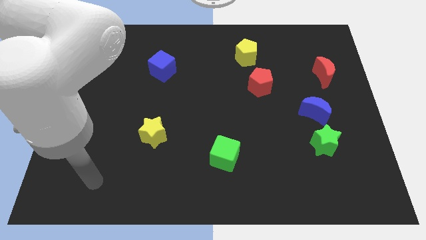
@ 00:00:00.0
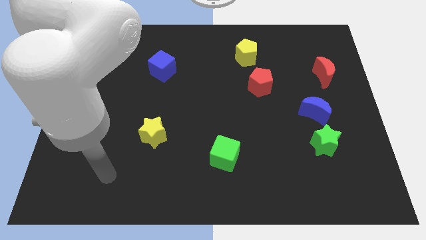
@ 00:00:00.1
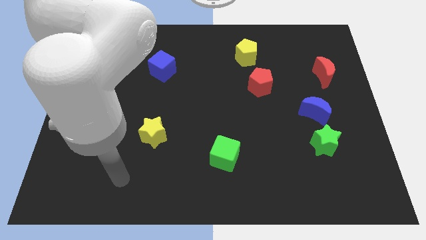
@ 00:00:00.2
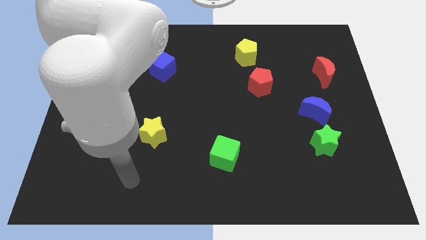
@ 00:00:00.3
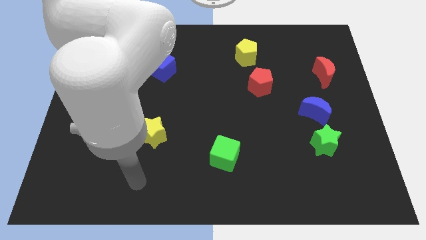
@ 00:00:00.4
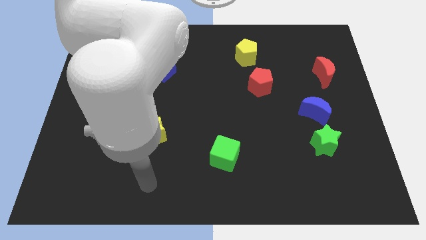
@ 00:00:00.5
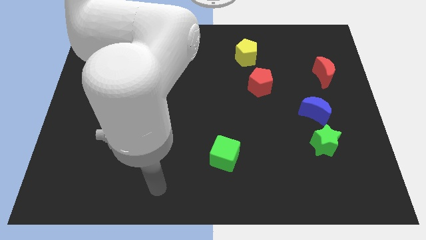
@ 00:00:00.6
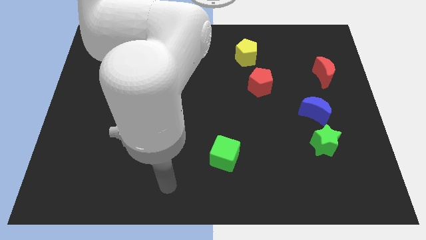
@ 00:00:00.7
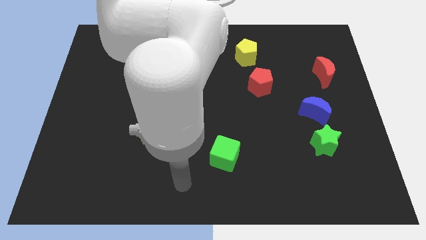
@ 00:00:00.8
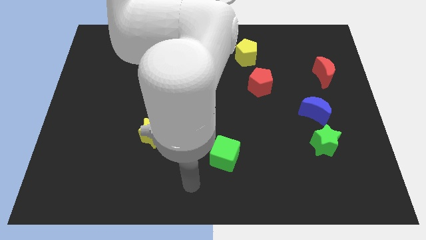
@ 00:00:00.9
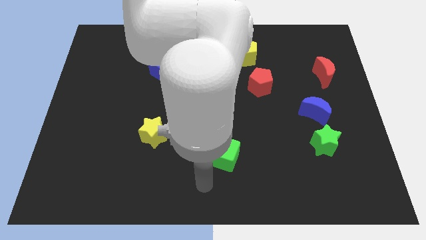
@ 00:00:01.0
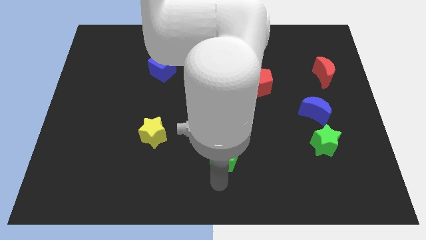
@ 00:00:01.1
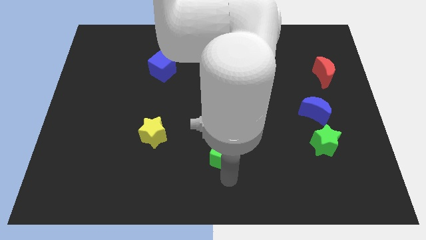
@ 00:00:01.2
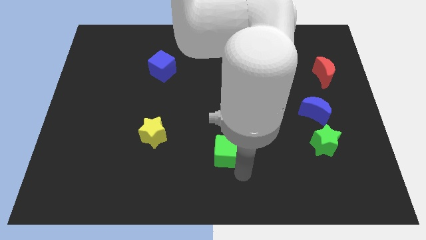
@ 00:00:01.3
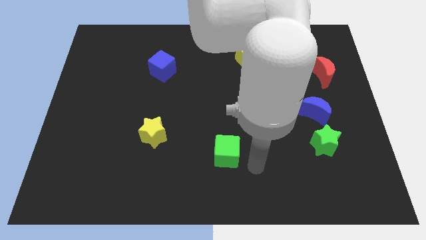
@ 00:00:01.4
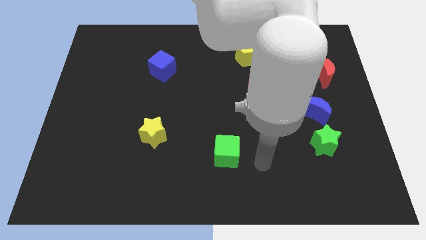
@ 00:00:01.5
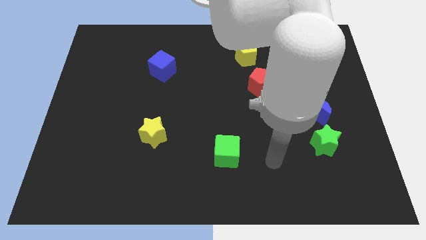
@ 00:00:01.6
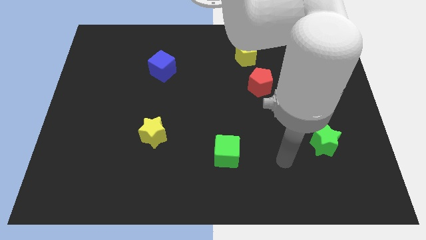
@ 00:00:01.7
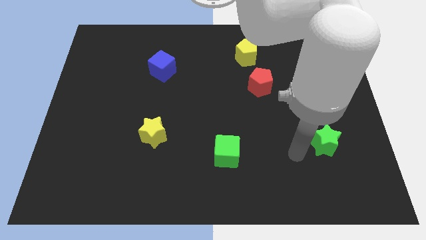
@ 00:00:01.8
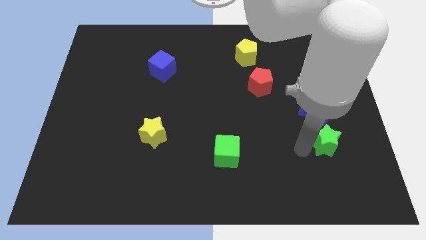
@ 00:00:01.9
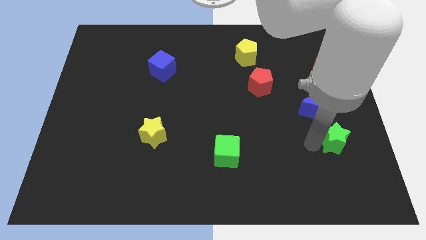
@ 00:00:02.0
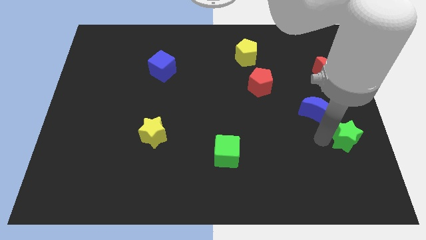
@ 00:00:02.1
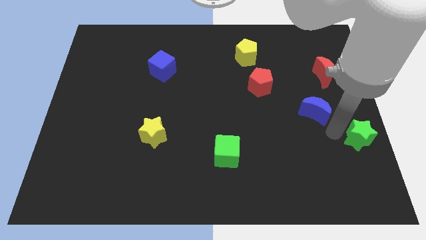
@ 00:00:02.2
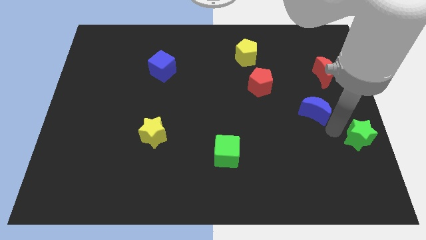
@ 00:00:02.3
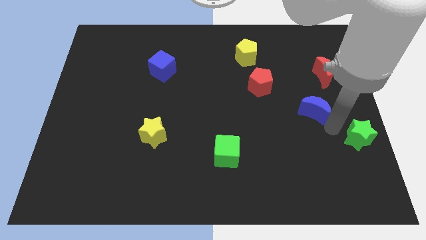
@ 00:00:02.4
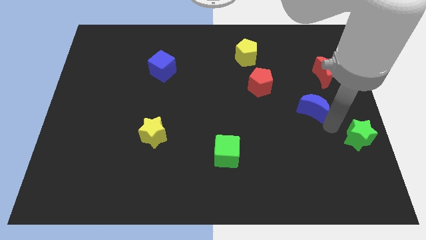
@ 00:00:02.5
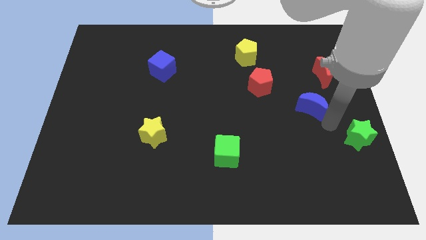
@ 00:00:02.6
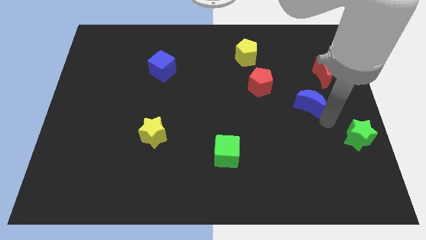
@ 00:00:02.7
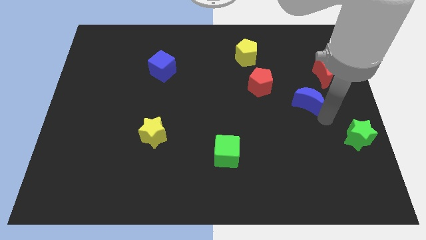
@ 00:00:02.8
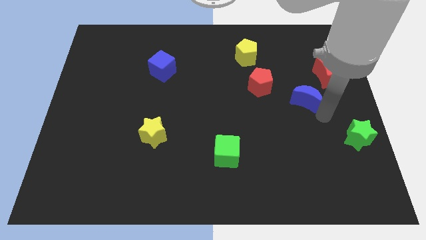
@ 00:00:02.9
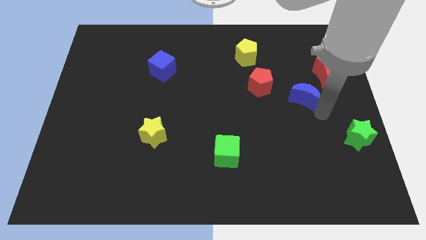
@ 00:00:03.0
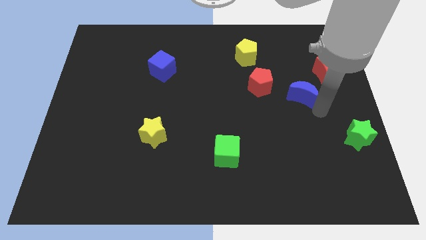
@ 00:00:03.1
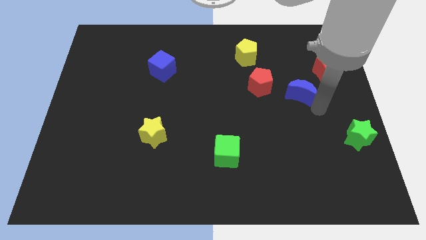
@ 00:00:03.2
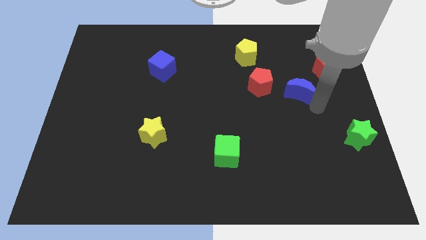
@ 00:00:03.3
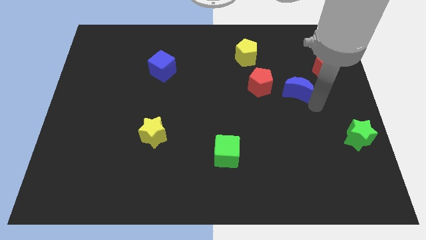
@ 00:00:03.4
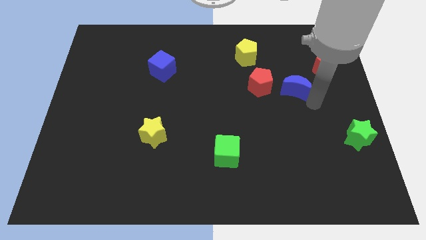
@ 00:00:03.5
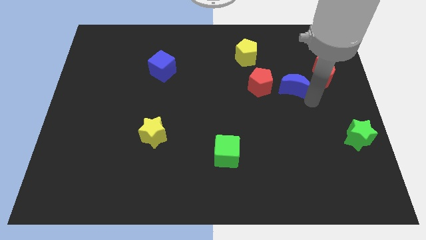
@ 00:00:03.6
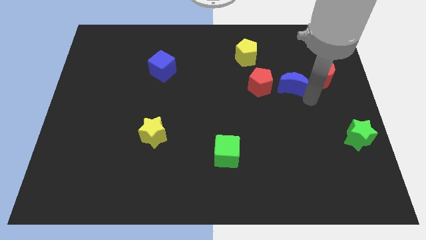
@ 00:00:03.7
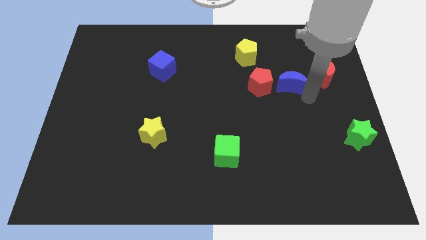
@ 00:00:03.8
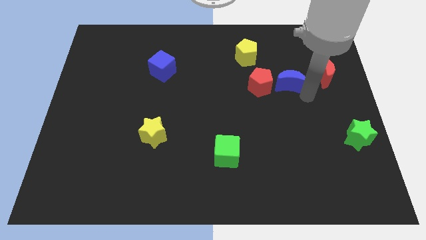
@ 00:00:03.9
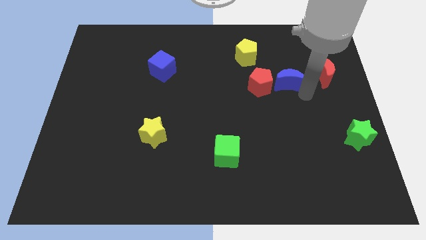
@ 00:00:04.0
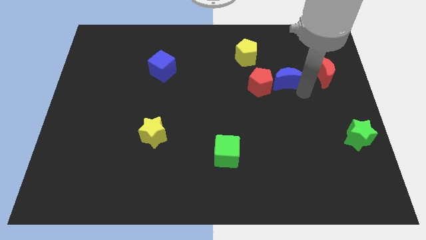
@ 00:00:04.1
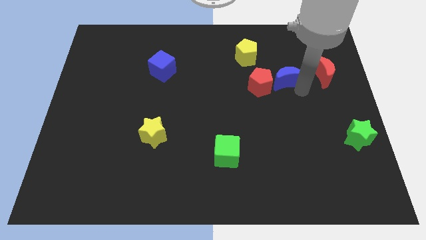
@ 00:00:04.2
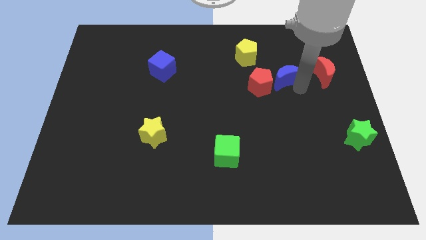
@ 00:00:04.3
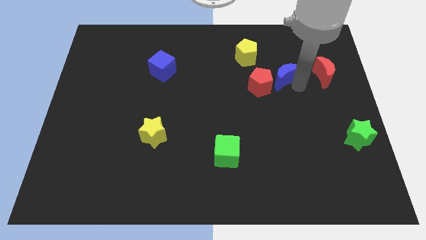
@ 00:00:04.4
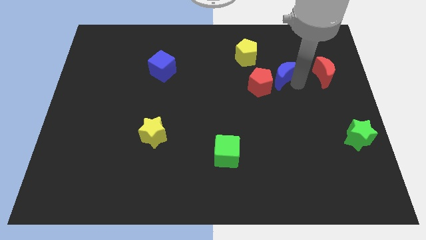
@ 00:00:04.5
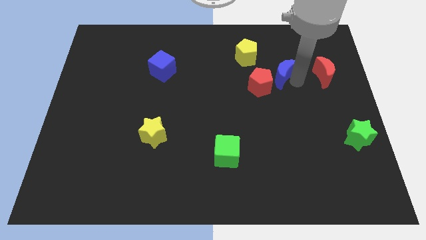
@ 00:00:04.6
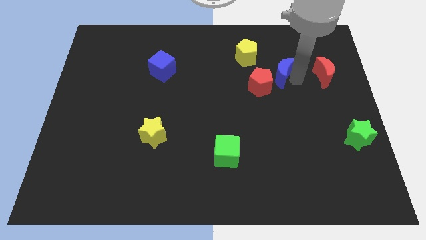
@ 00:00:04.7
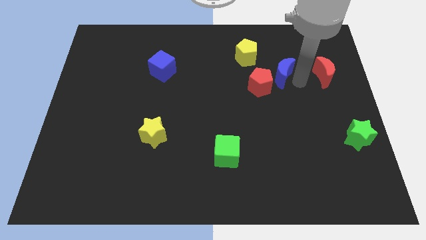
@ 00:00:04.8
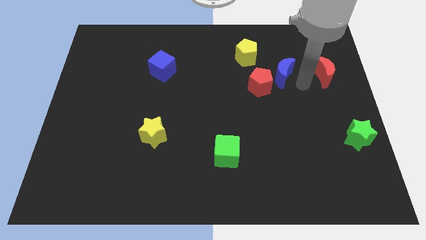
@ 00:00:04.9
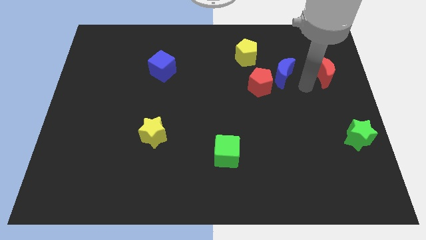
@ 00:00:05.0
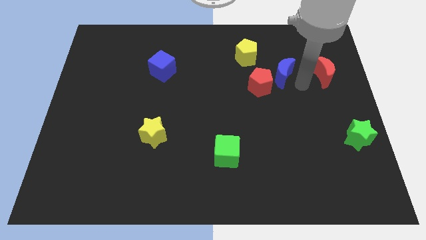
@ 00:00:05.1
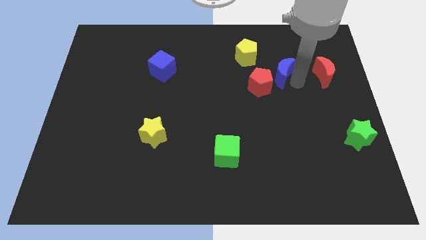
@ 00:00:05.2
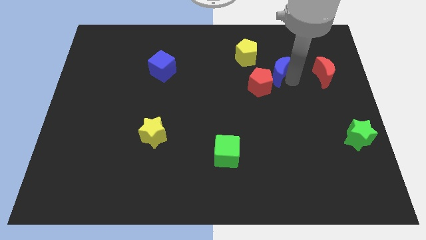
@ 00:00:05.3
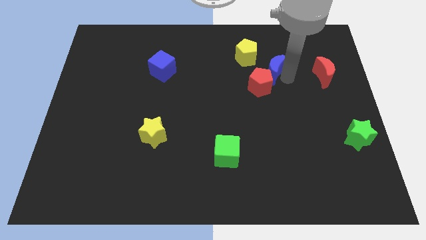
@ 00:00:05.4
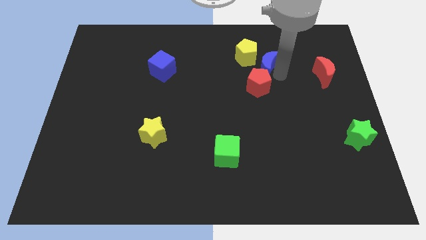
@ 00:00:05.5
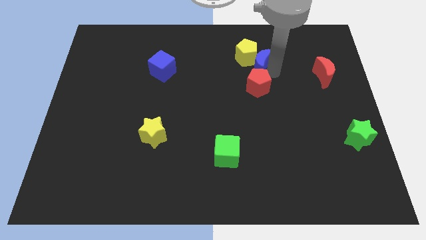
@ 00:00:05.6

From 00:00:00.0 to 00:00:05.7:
put the blue moon to the yellow pentagon

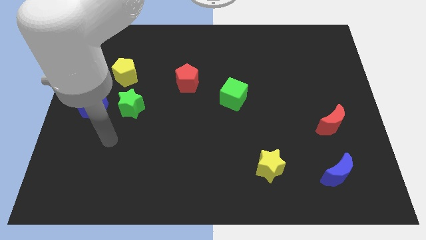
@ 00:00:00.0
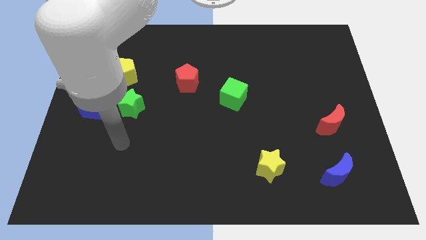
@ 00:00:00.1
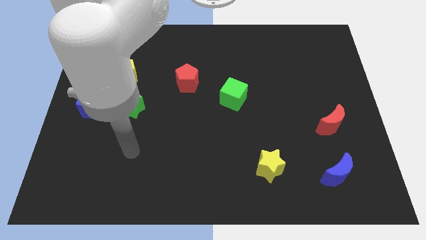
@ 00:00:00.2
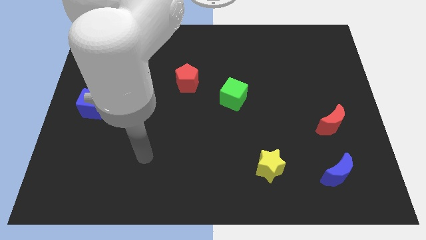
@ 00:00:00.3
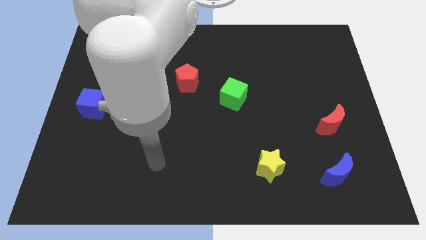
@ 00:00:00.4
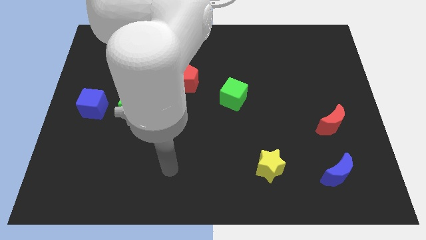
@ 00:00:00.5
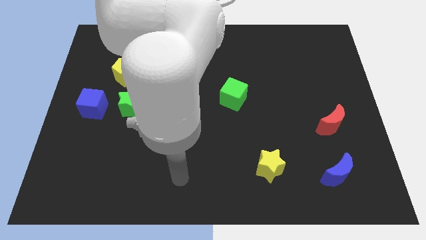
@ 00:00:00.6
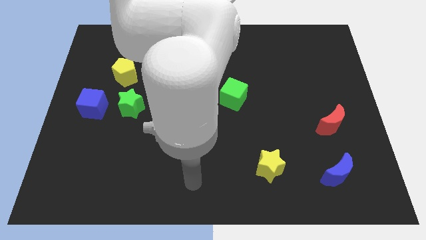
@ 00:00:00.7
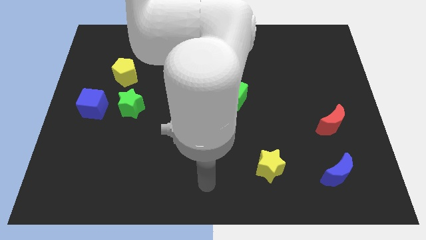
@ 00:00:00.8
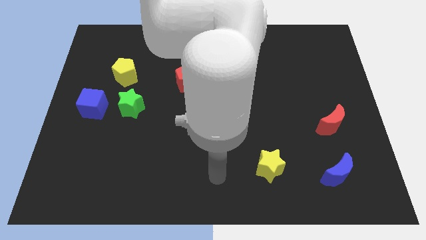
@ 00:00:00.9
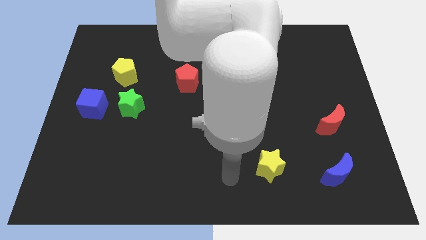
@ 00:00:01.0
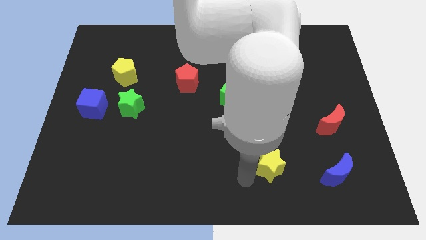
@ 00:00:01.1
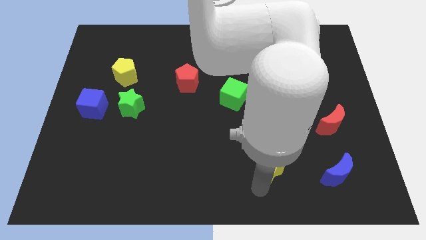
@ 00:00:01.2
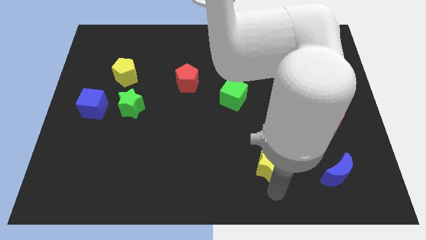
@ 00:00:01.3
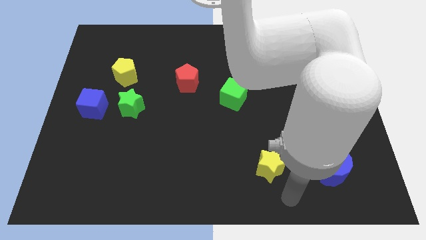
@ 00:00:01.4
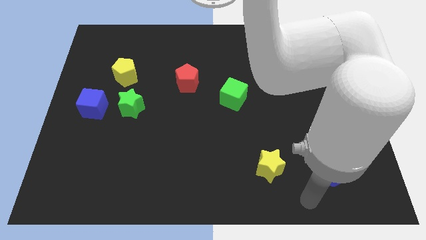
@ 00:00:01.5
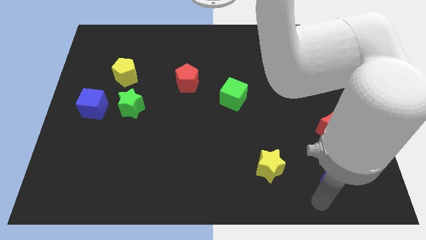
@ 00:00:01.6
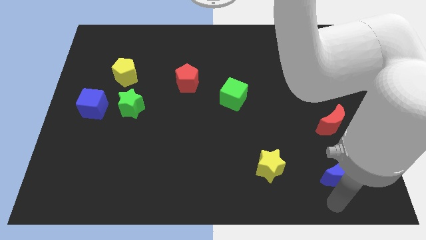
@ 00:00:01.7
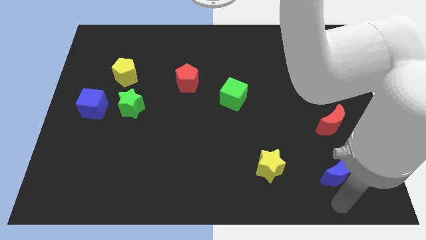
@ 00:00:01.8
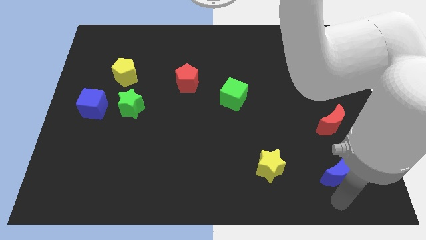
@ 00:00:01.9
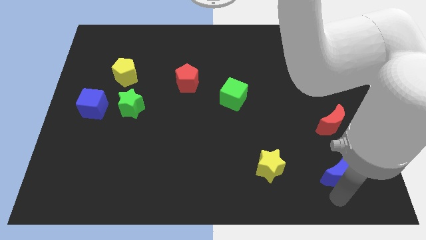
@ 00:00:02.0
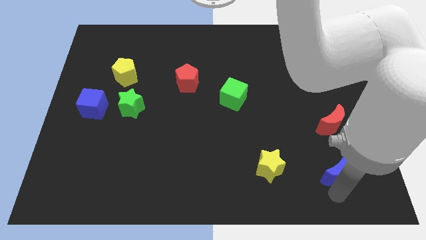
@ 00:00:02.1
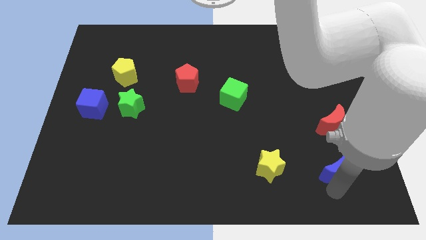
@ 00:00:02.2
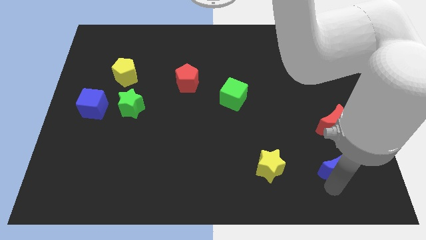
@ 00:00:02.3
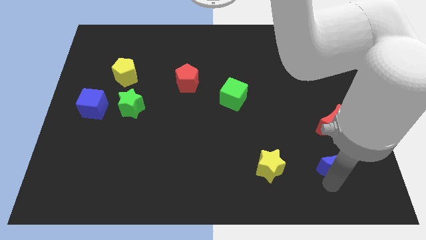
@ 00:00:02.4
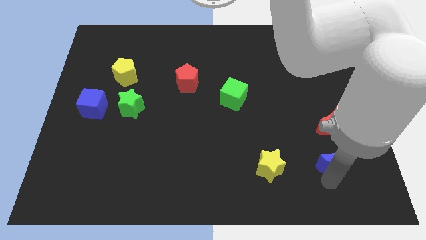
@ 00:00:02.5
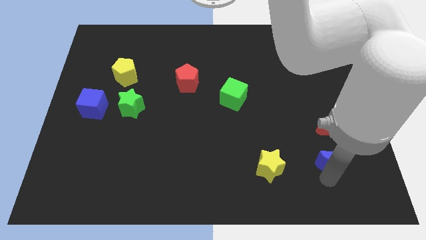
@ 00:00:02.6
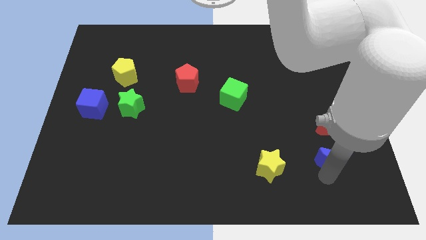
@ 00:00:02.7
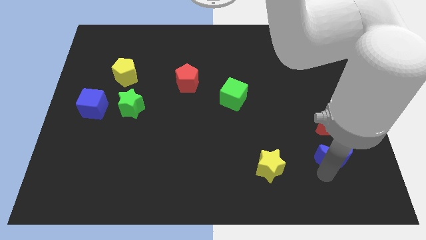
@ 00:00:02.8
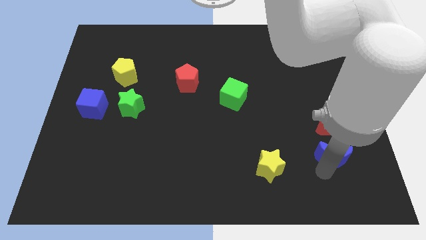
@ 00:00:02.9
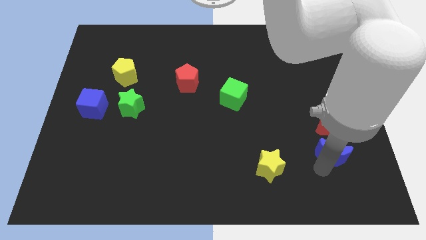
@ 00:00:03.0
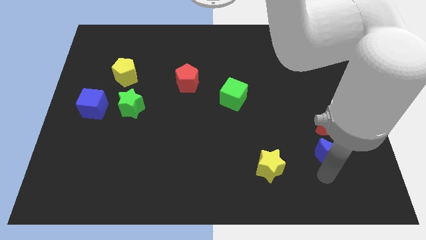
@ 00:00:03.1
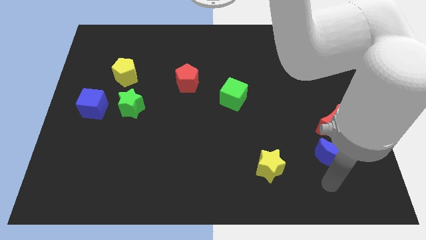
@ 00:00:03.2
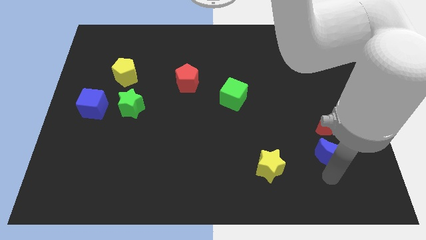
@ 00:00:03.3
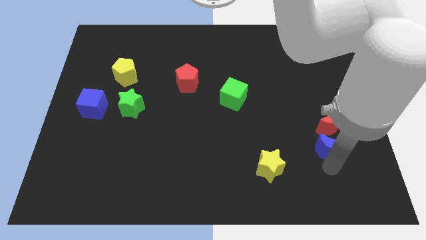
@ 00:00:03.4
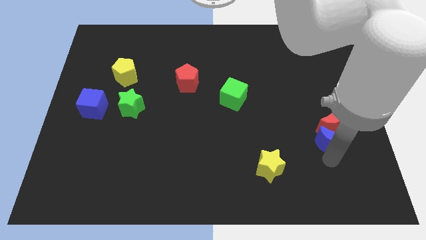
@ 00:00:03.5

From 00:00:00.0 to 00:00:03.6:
push the blue moon close to the red moon
